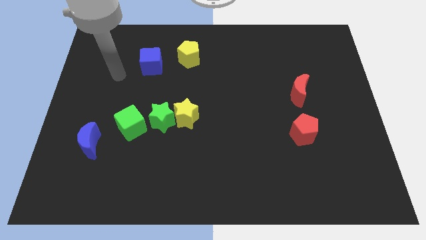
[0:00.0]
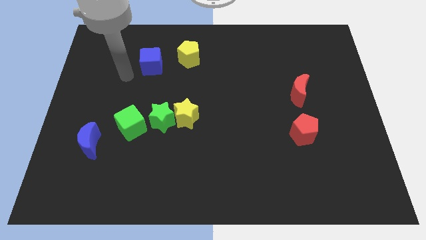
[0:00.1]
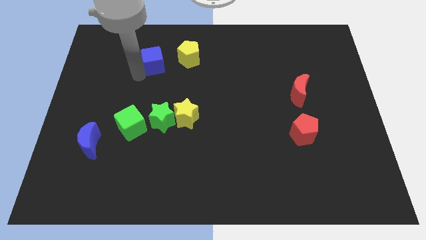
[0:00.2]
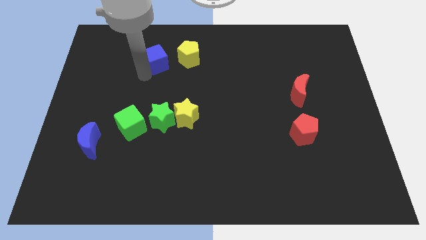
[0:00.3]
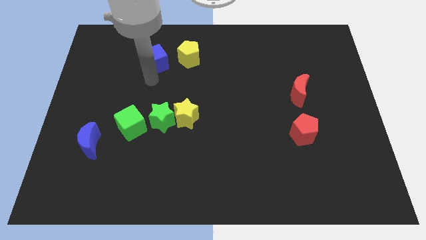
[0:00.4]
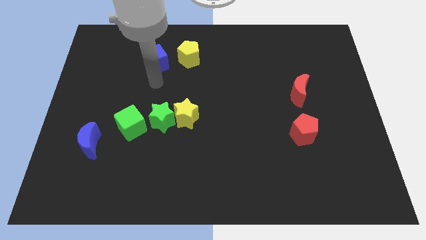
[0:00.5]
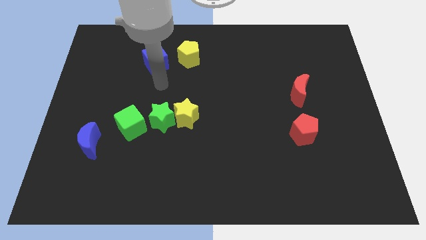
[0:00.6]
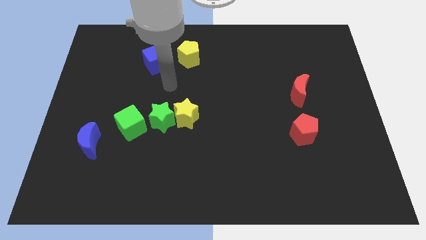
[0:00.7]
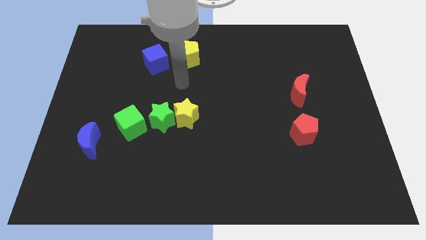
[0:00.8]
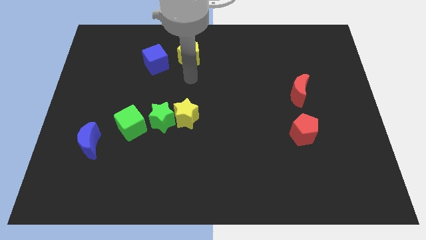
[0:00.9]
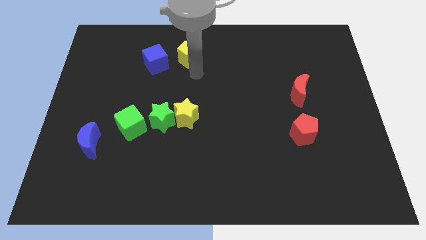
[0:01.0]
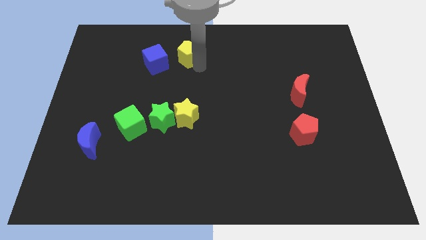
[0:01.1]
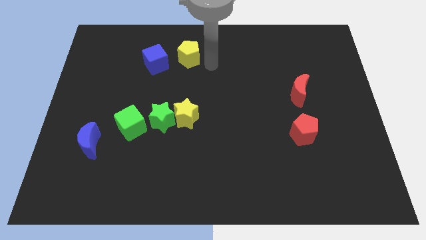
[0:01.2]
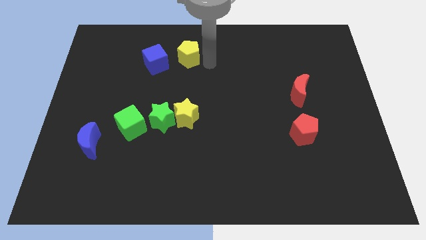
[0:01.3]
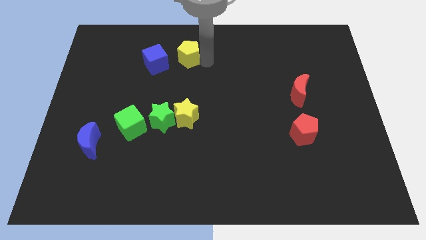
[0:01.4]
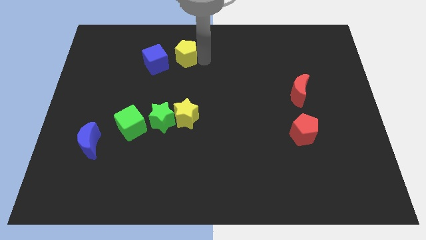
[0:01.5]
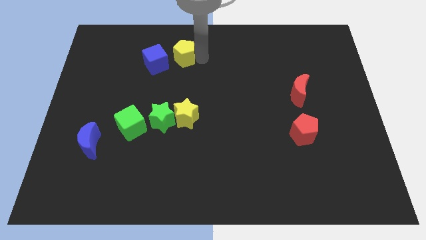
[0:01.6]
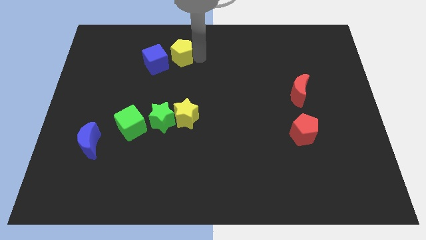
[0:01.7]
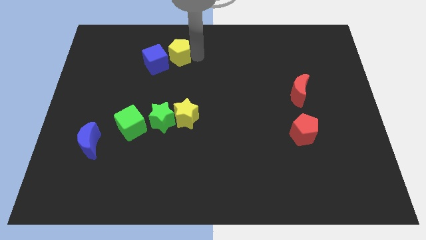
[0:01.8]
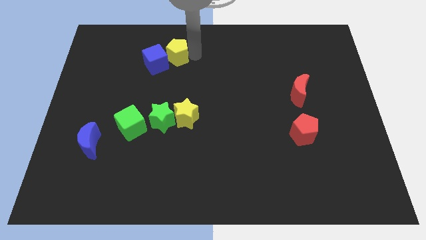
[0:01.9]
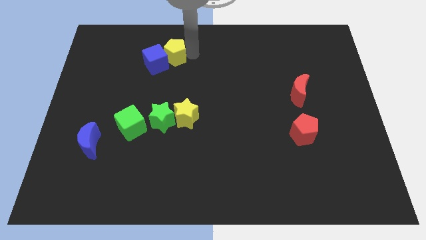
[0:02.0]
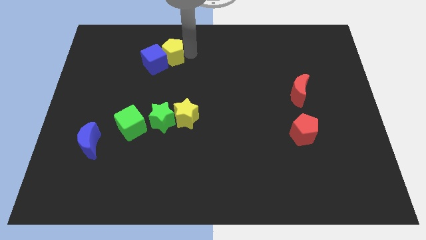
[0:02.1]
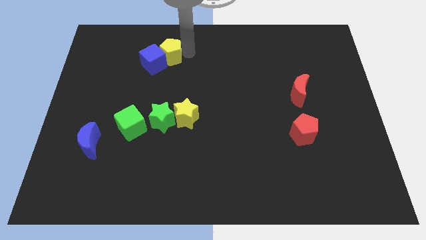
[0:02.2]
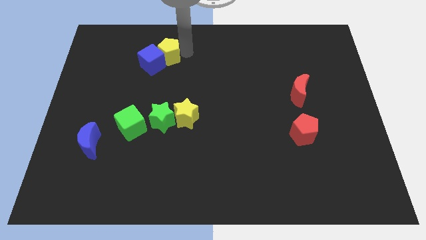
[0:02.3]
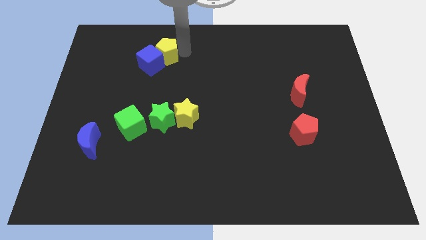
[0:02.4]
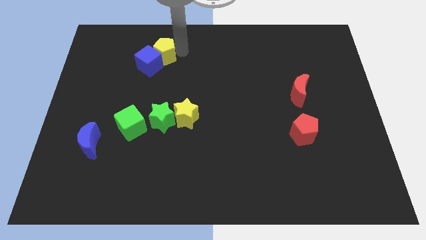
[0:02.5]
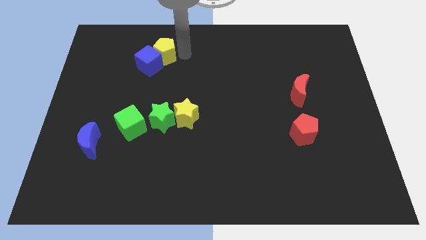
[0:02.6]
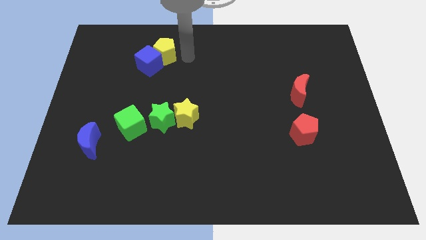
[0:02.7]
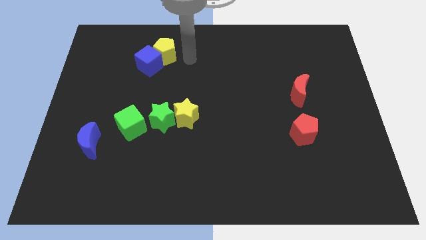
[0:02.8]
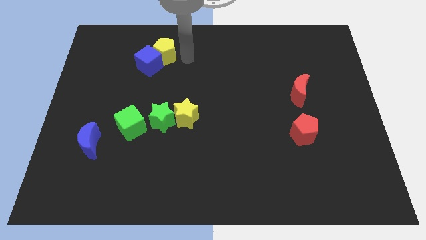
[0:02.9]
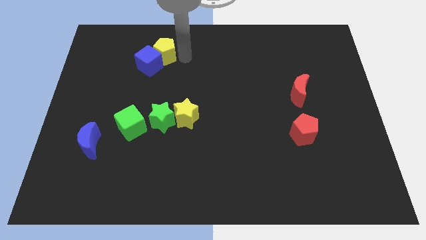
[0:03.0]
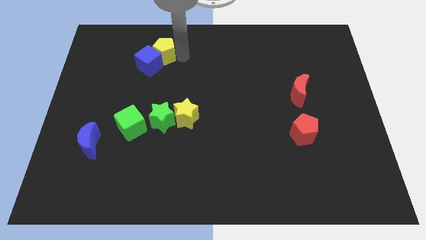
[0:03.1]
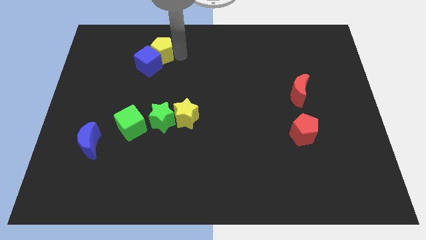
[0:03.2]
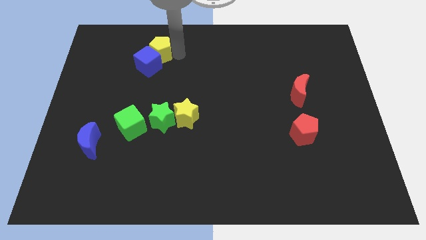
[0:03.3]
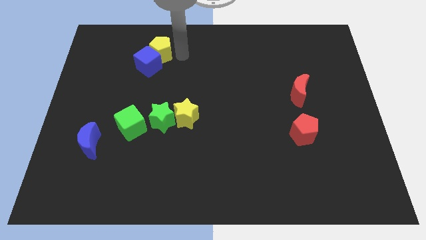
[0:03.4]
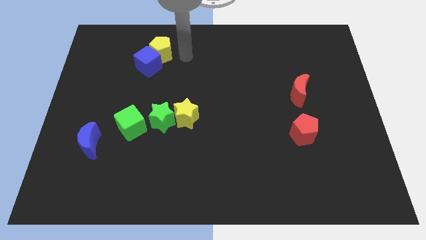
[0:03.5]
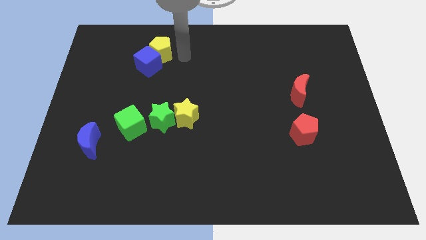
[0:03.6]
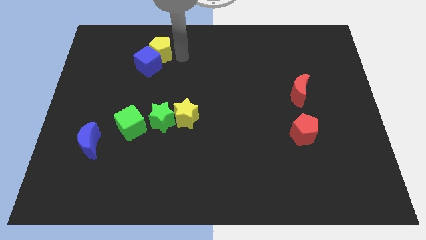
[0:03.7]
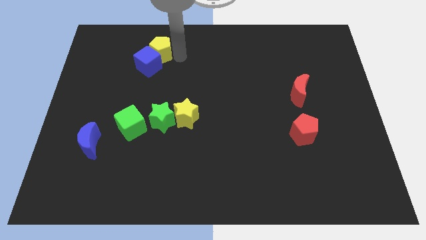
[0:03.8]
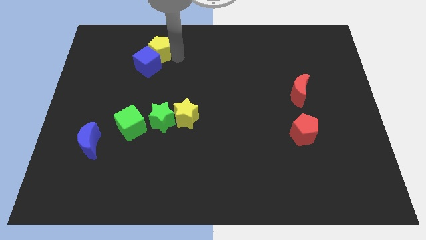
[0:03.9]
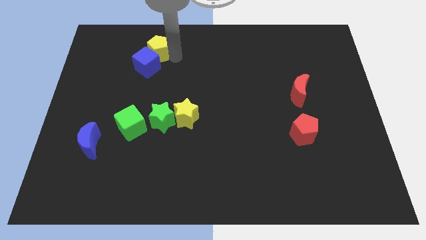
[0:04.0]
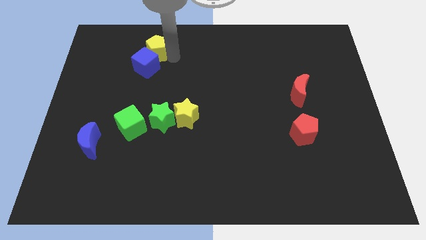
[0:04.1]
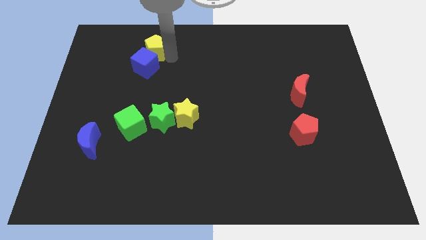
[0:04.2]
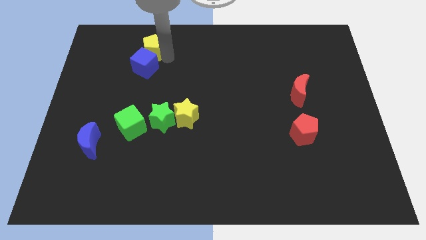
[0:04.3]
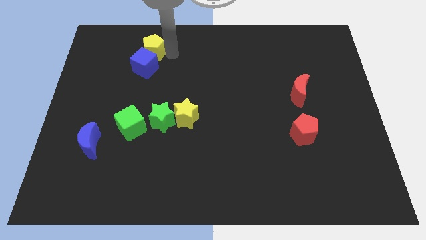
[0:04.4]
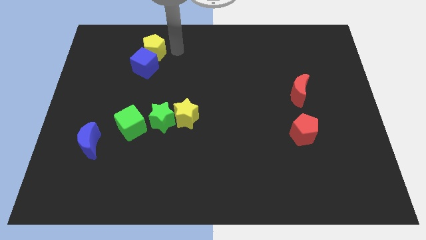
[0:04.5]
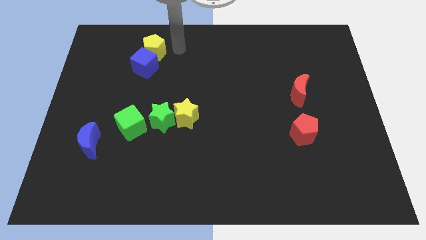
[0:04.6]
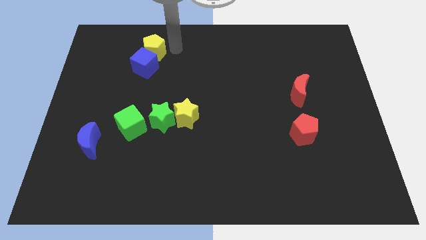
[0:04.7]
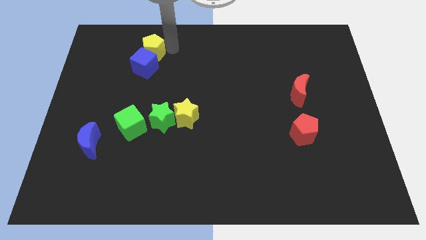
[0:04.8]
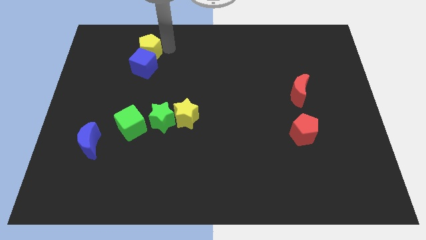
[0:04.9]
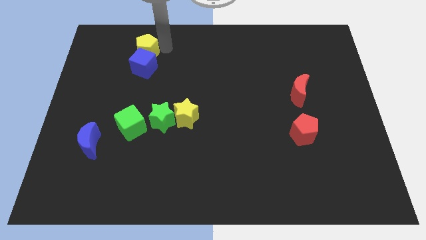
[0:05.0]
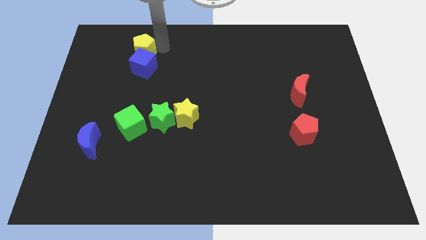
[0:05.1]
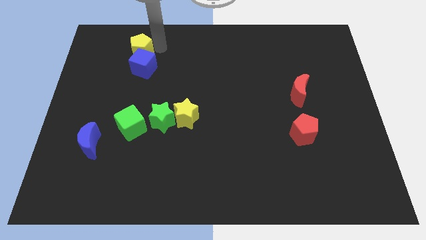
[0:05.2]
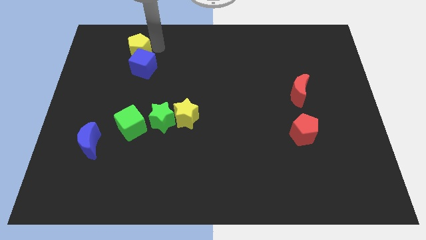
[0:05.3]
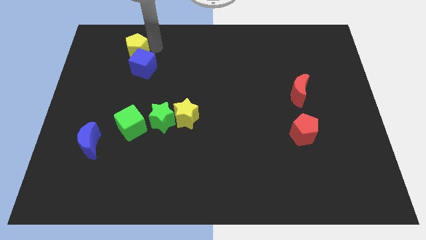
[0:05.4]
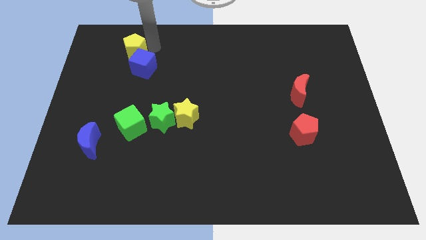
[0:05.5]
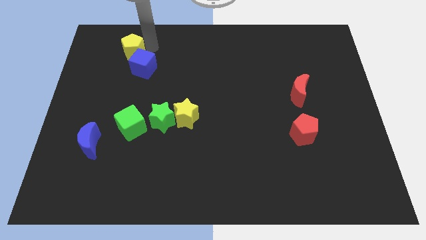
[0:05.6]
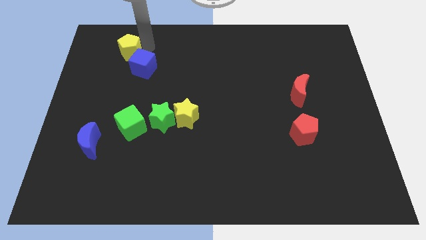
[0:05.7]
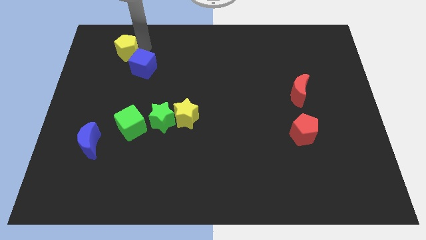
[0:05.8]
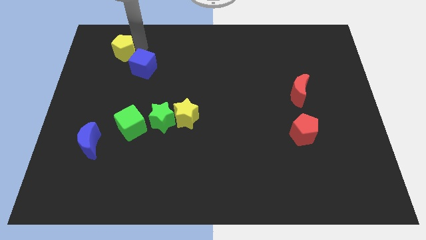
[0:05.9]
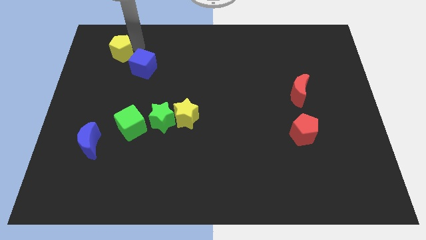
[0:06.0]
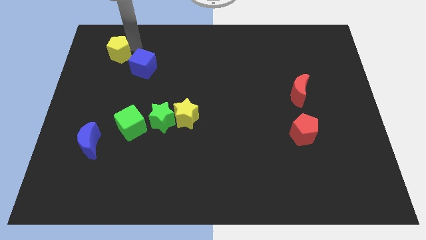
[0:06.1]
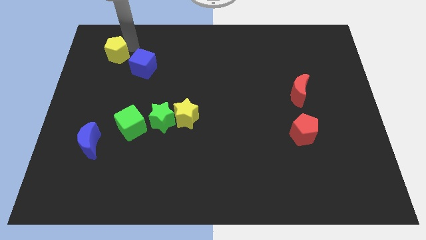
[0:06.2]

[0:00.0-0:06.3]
slide the yellow pentagon left of the blue cube
